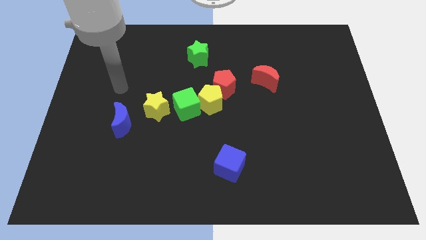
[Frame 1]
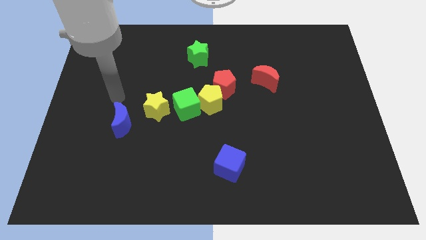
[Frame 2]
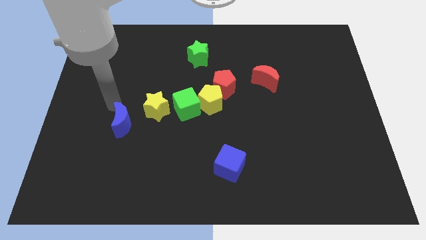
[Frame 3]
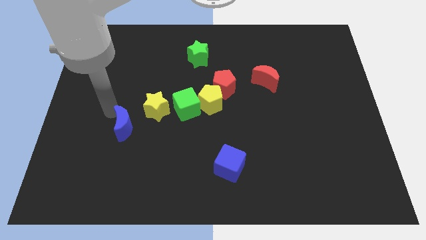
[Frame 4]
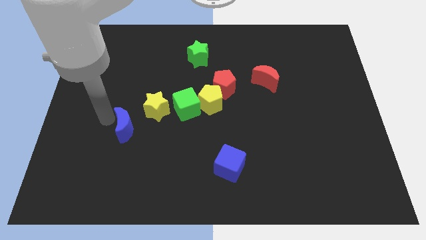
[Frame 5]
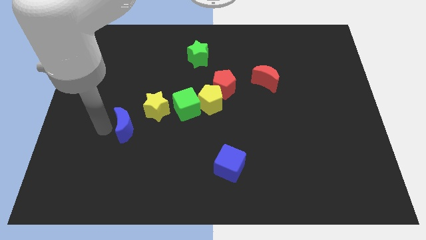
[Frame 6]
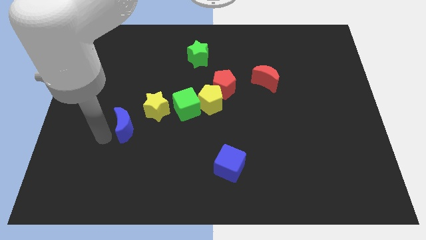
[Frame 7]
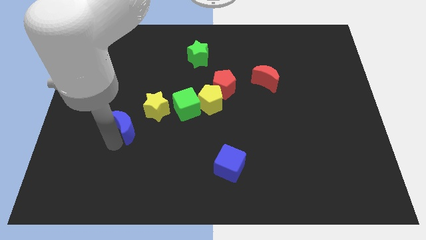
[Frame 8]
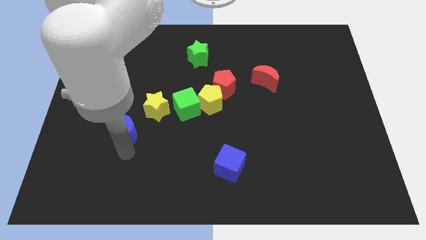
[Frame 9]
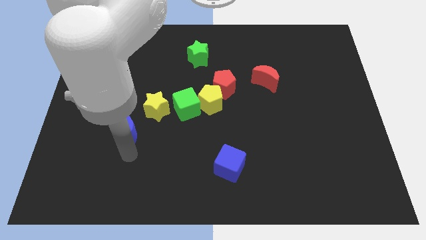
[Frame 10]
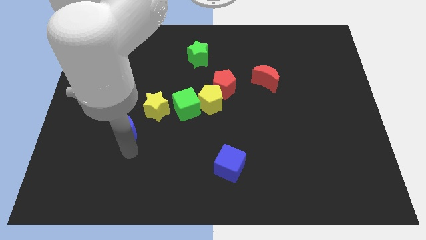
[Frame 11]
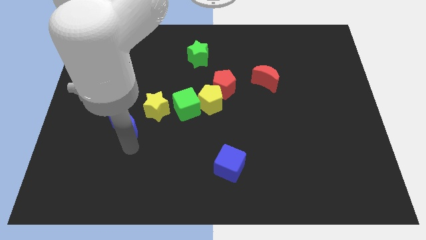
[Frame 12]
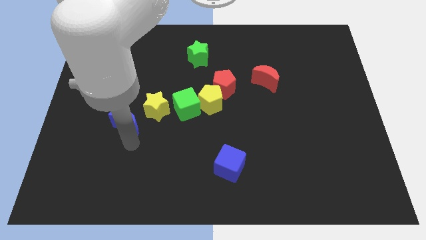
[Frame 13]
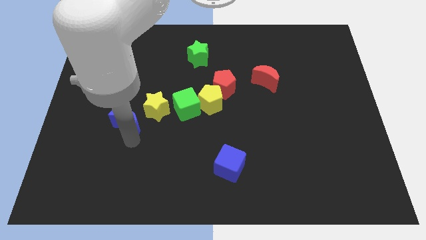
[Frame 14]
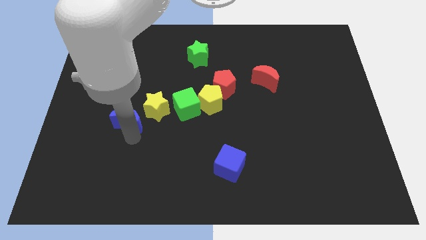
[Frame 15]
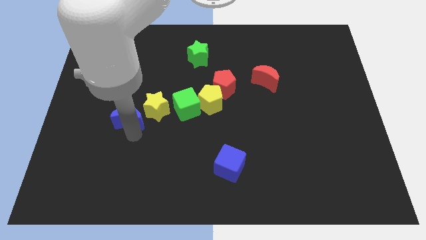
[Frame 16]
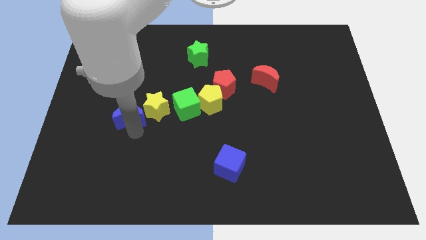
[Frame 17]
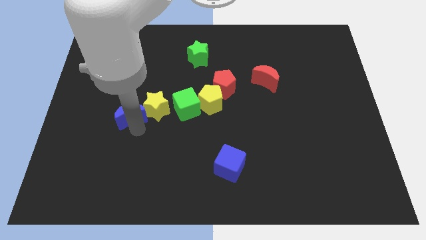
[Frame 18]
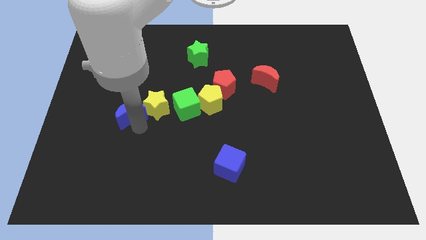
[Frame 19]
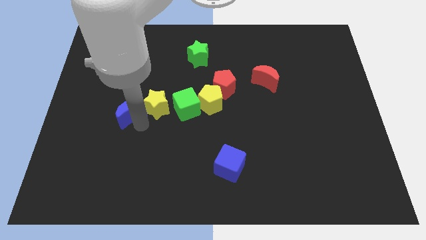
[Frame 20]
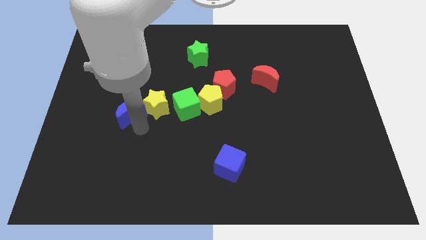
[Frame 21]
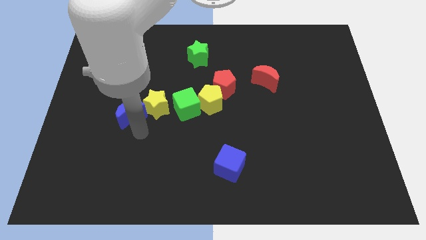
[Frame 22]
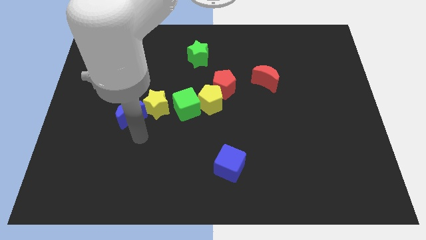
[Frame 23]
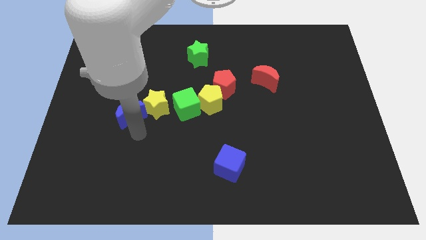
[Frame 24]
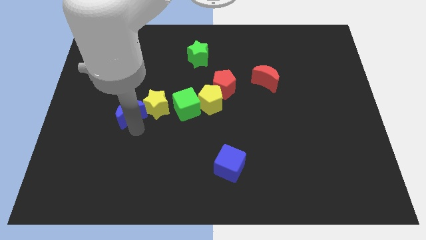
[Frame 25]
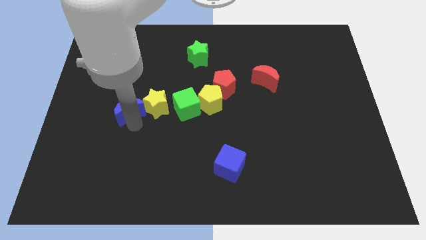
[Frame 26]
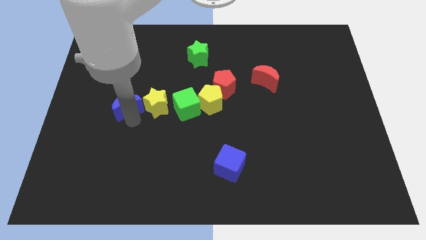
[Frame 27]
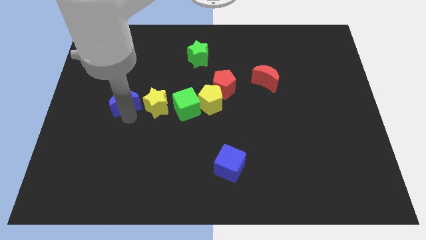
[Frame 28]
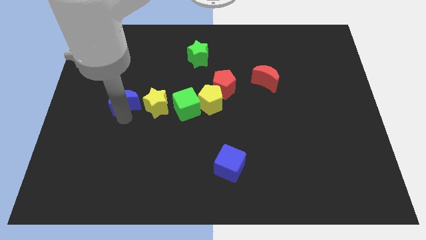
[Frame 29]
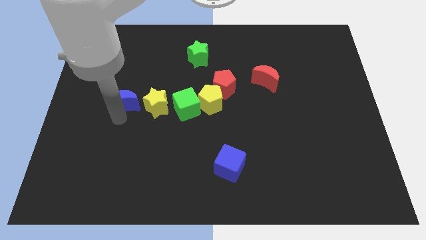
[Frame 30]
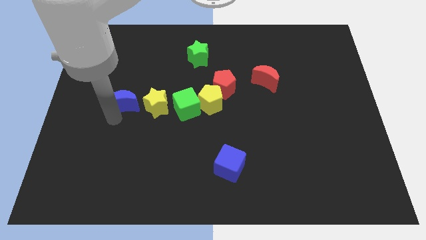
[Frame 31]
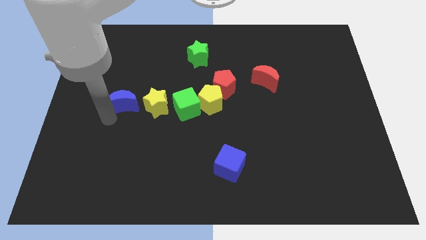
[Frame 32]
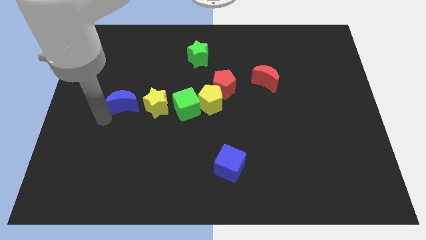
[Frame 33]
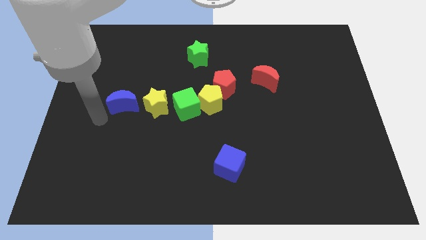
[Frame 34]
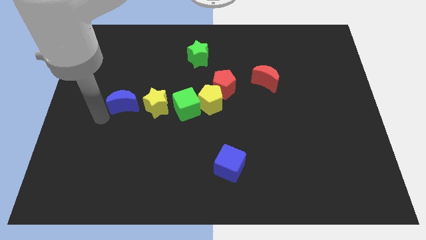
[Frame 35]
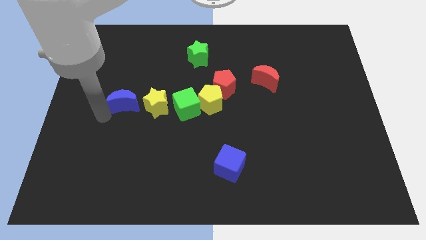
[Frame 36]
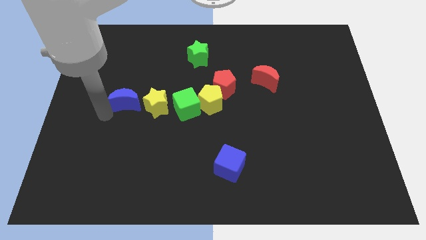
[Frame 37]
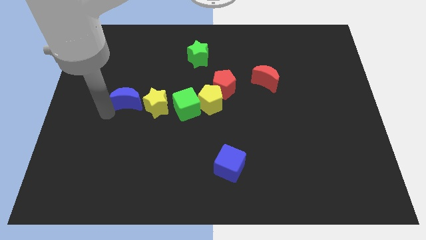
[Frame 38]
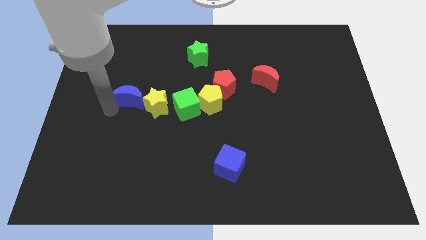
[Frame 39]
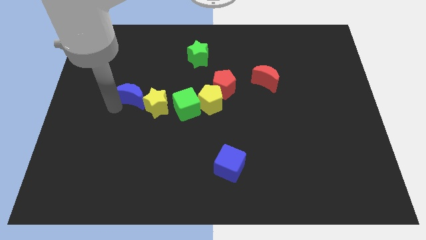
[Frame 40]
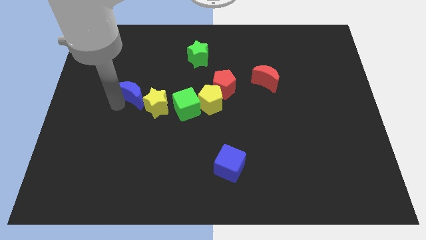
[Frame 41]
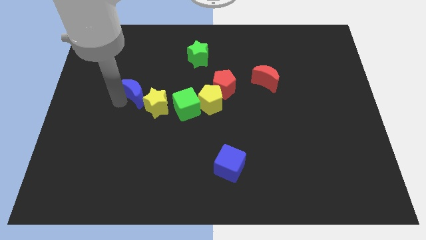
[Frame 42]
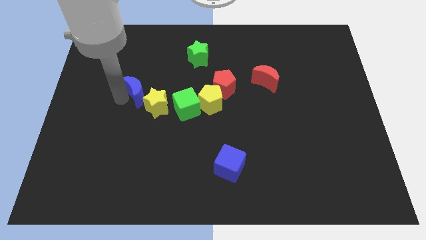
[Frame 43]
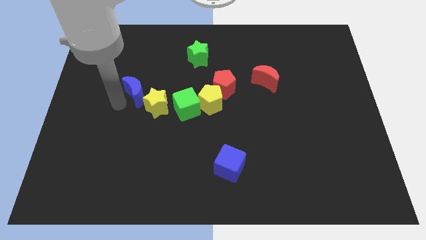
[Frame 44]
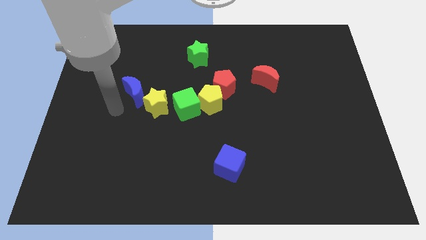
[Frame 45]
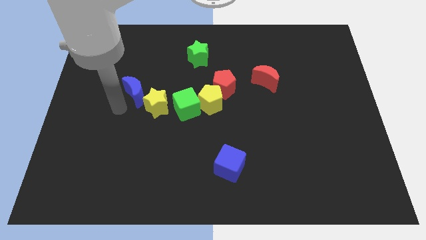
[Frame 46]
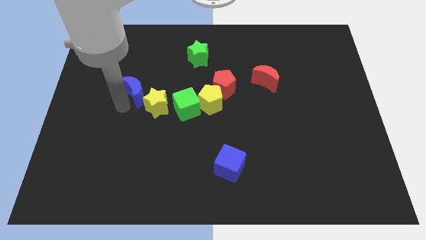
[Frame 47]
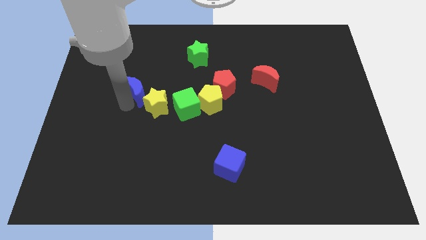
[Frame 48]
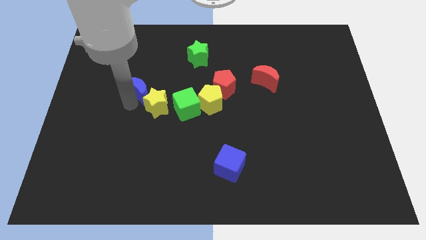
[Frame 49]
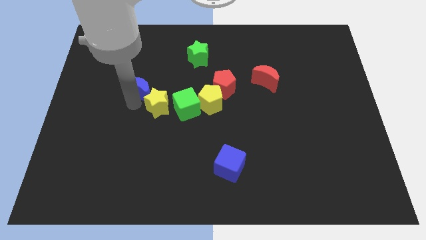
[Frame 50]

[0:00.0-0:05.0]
move the blue moon above the yellow star

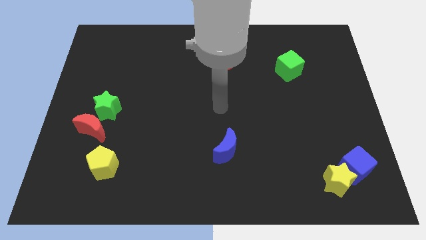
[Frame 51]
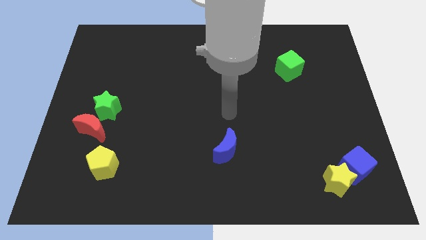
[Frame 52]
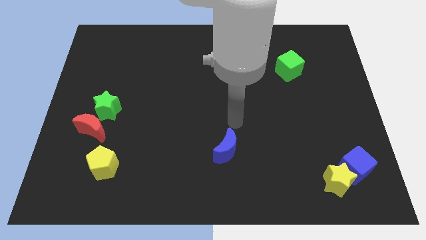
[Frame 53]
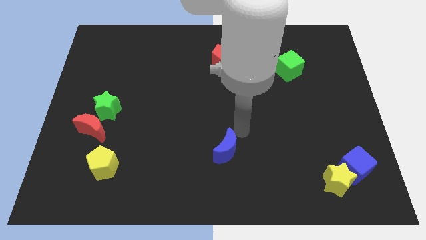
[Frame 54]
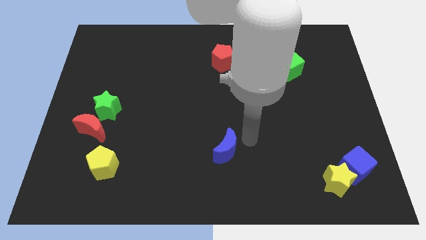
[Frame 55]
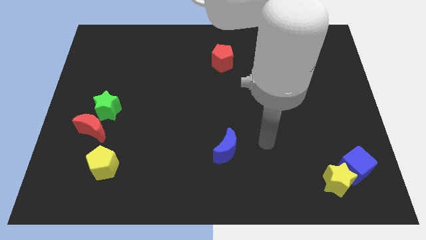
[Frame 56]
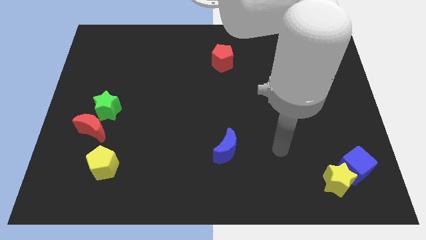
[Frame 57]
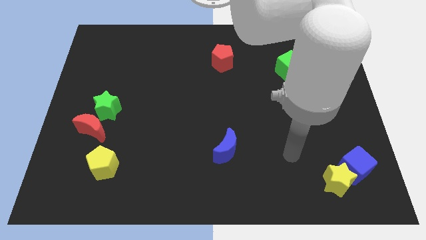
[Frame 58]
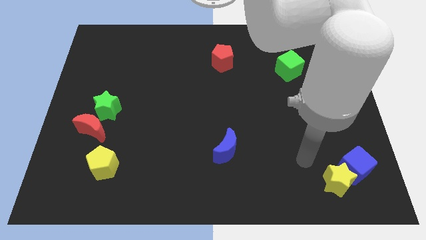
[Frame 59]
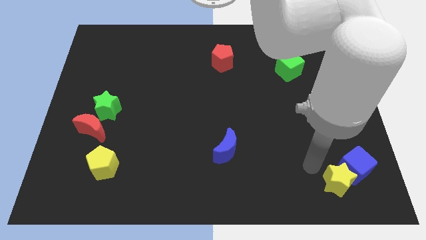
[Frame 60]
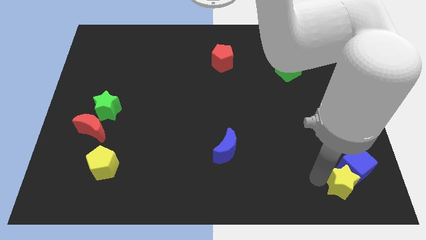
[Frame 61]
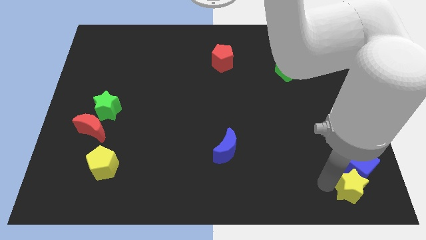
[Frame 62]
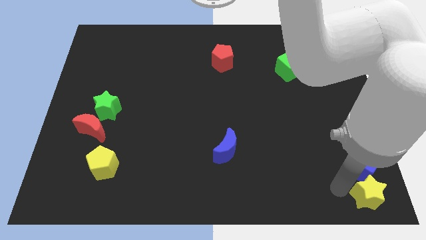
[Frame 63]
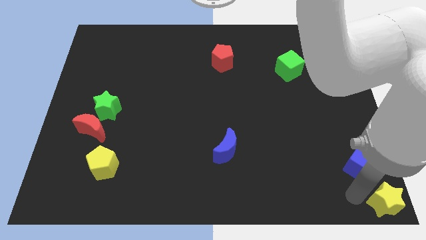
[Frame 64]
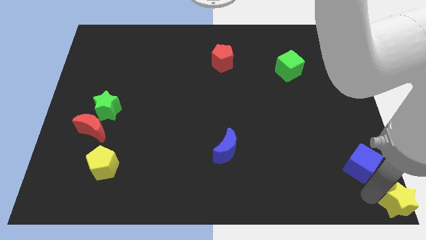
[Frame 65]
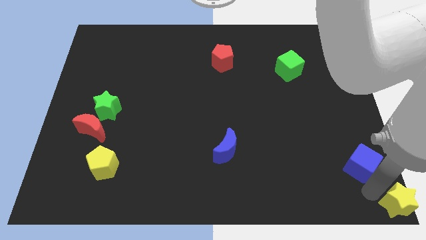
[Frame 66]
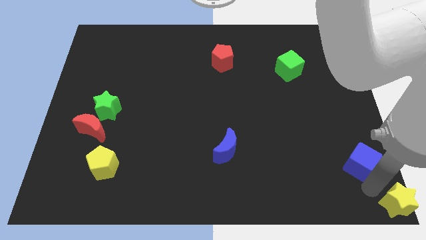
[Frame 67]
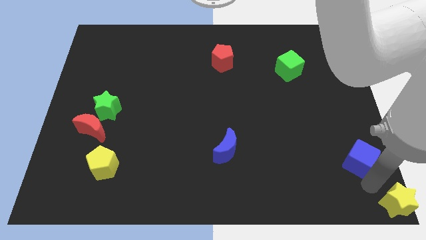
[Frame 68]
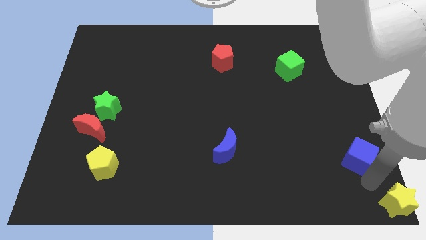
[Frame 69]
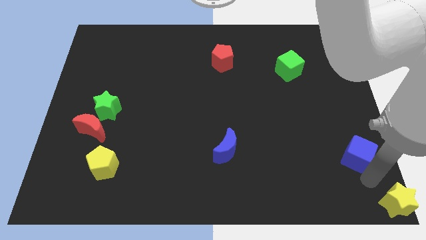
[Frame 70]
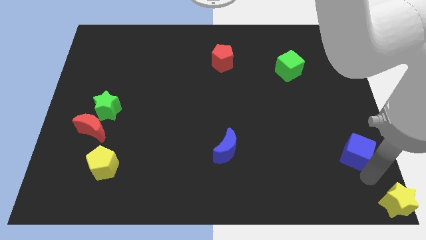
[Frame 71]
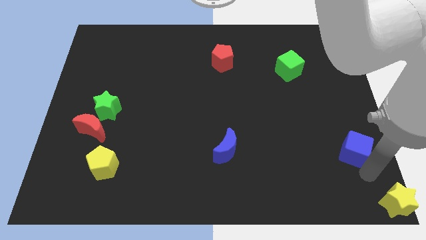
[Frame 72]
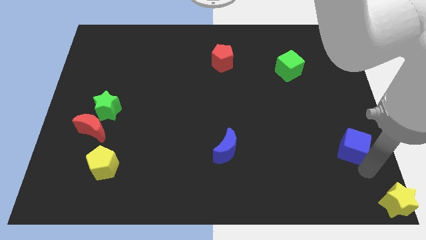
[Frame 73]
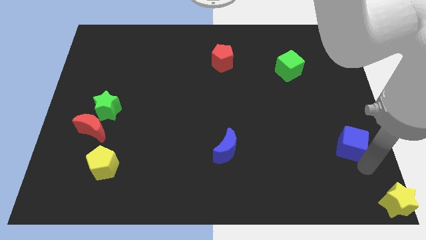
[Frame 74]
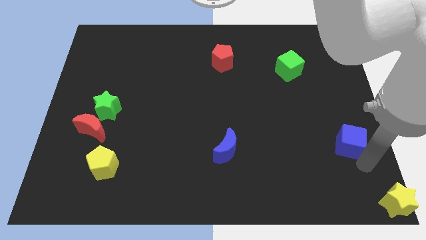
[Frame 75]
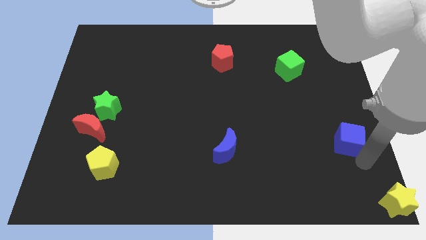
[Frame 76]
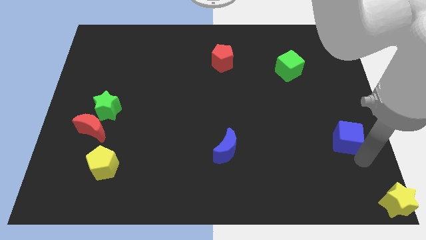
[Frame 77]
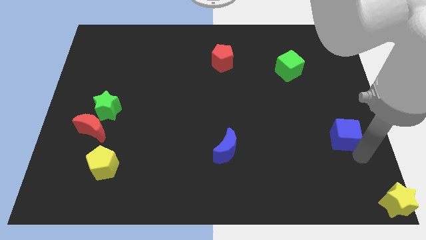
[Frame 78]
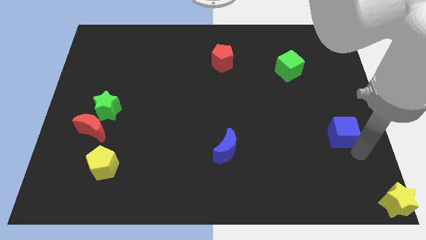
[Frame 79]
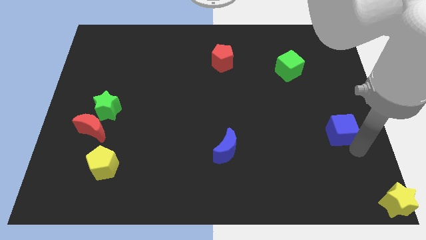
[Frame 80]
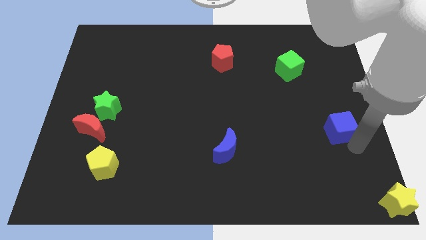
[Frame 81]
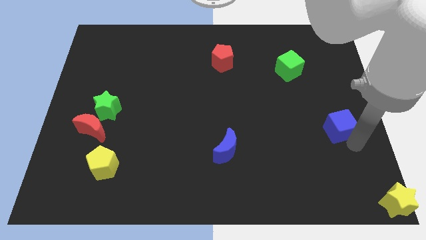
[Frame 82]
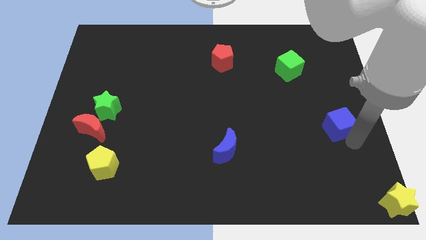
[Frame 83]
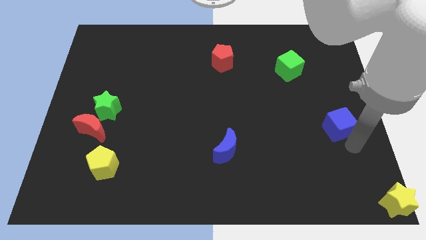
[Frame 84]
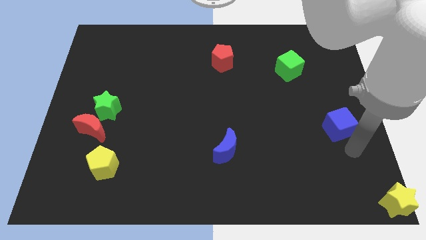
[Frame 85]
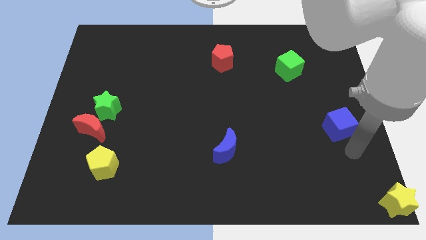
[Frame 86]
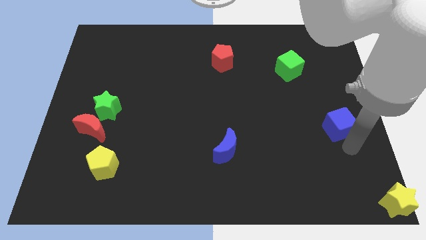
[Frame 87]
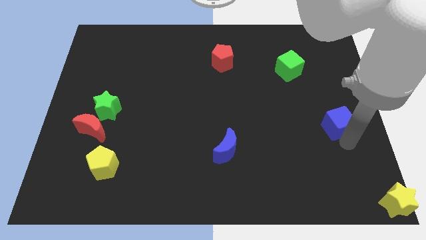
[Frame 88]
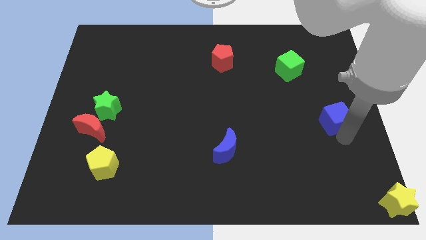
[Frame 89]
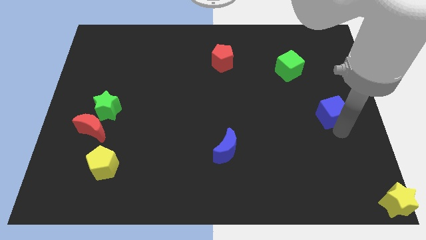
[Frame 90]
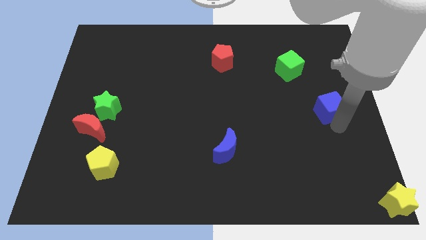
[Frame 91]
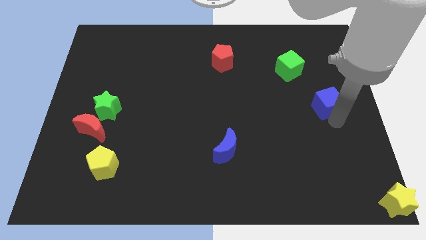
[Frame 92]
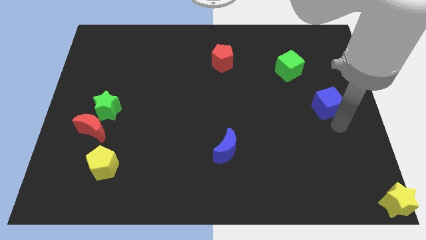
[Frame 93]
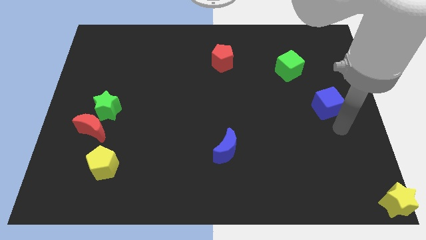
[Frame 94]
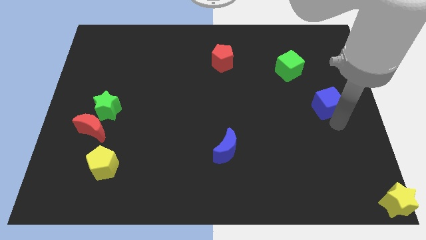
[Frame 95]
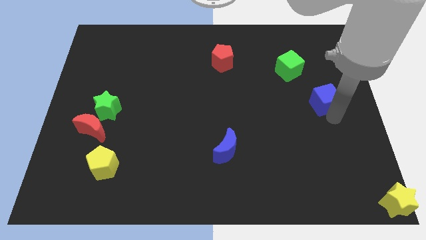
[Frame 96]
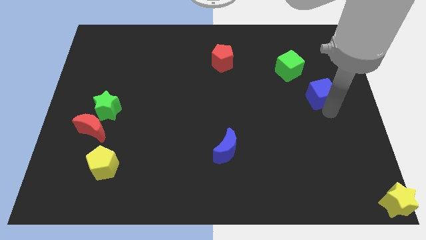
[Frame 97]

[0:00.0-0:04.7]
move the blue cube to the bottom right side of the green cube
